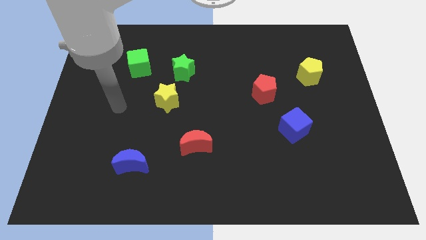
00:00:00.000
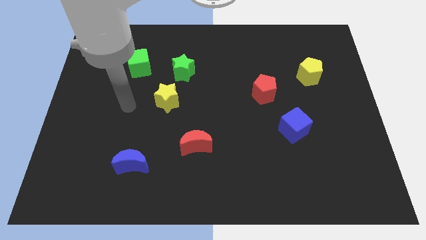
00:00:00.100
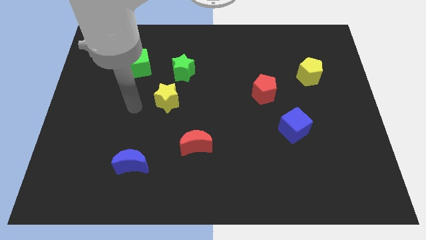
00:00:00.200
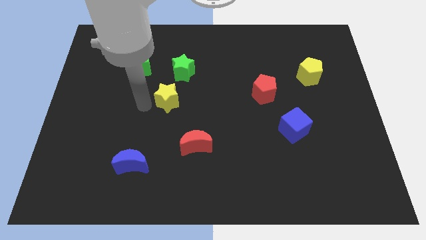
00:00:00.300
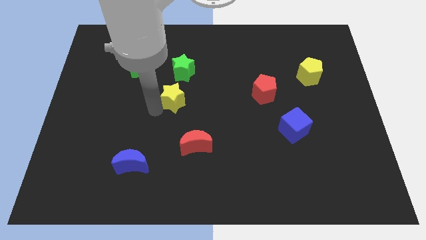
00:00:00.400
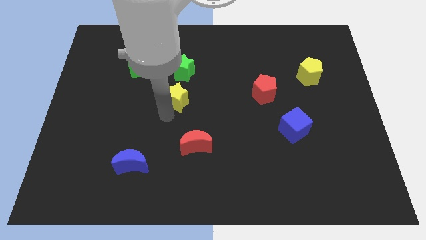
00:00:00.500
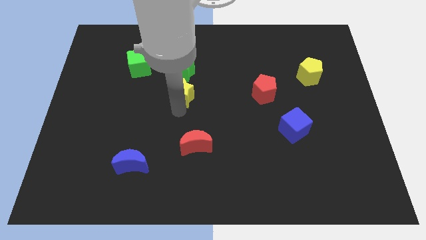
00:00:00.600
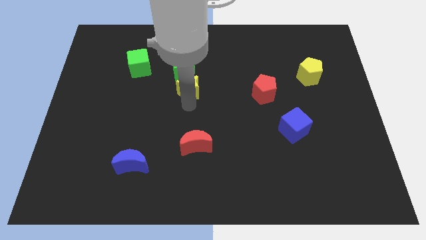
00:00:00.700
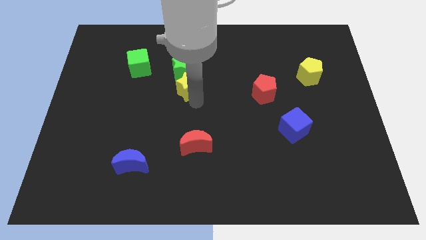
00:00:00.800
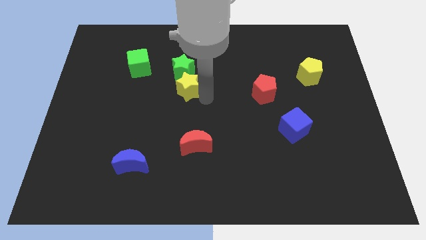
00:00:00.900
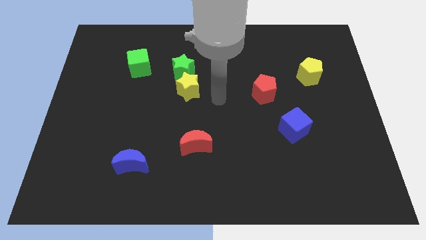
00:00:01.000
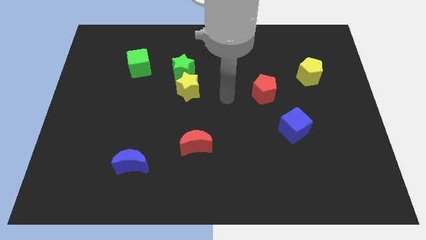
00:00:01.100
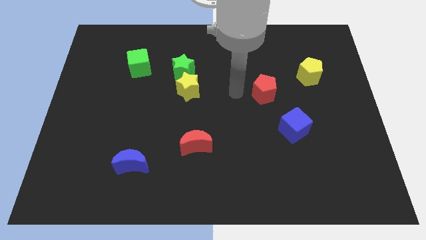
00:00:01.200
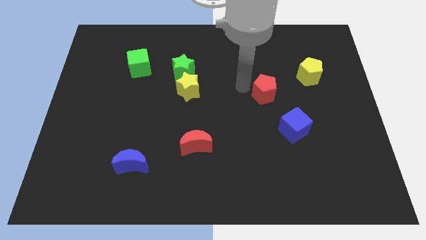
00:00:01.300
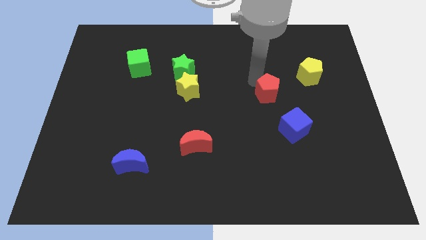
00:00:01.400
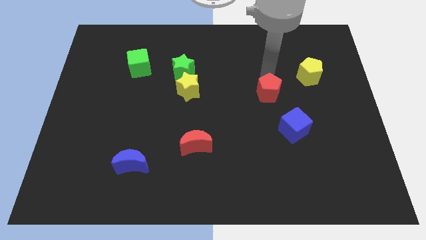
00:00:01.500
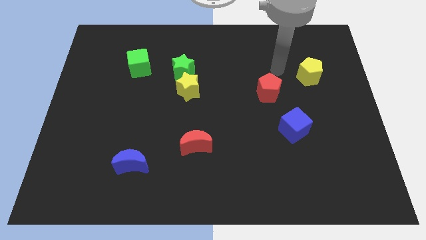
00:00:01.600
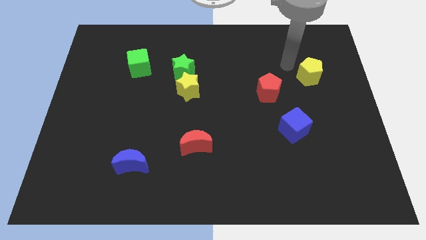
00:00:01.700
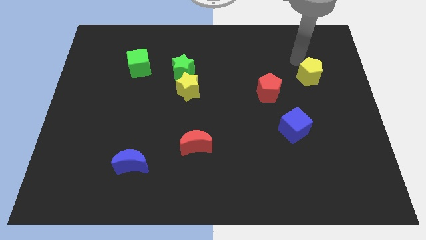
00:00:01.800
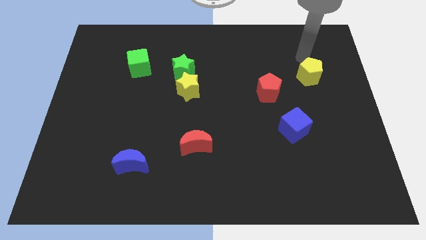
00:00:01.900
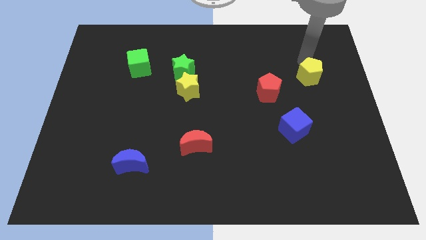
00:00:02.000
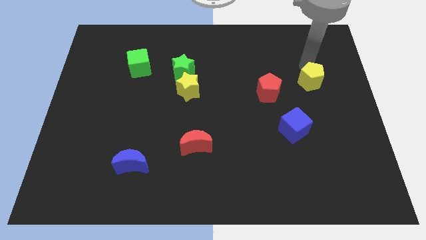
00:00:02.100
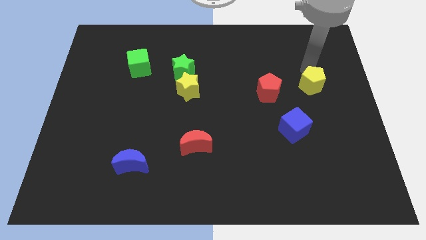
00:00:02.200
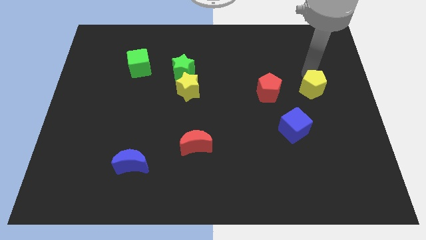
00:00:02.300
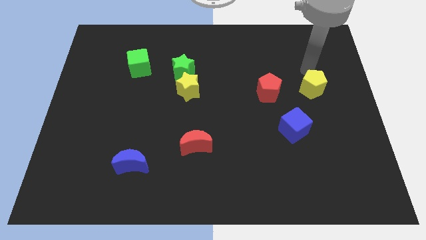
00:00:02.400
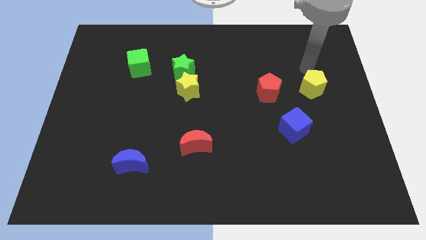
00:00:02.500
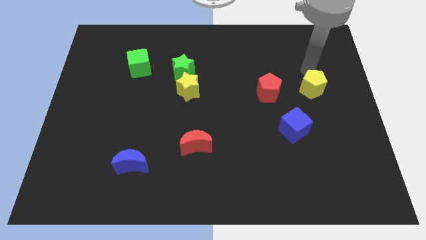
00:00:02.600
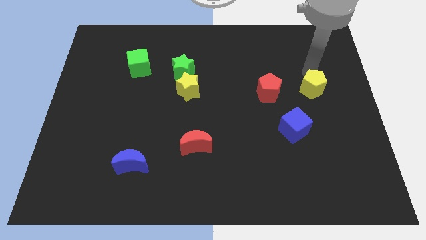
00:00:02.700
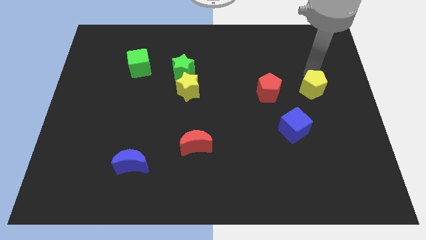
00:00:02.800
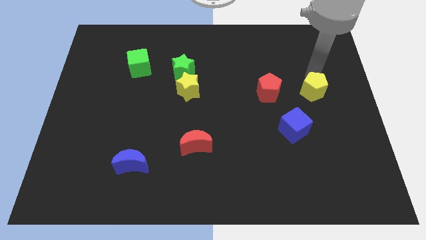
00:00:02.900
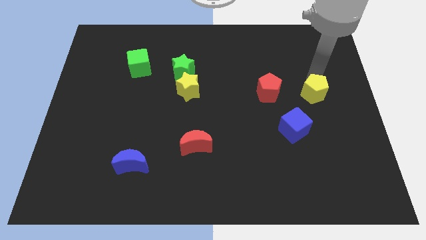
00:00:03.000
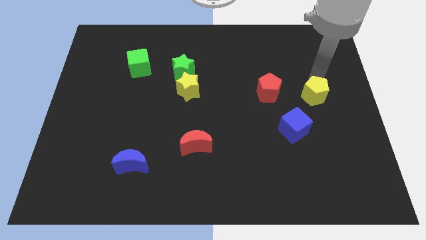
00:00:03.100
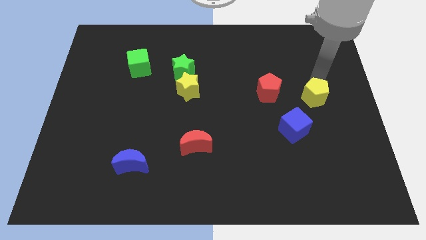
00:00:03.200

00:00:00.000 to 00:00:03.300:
slide the yellow pentagon downwards slightly

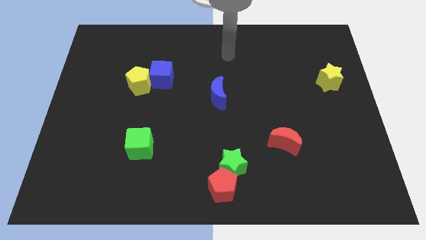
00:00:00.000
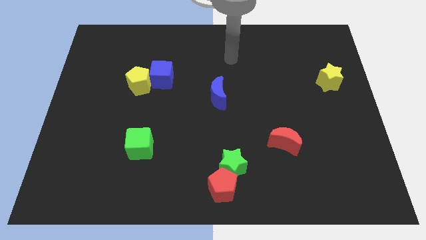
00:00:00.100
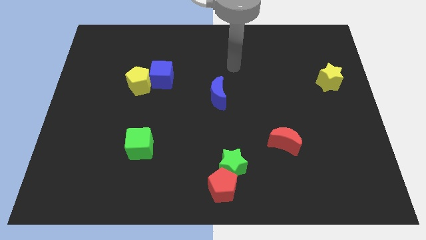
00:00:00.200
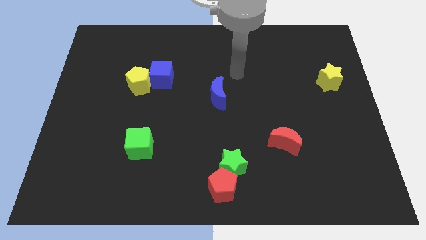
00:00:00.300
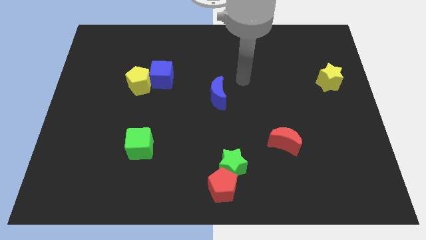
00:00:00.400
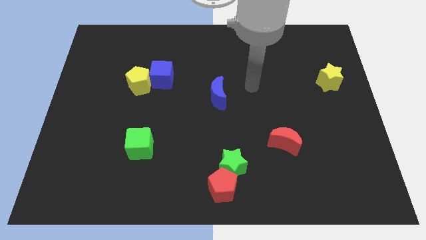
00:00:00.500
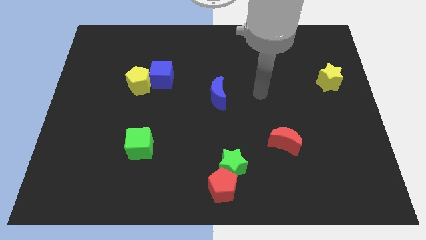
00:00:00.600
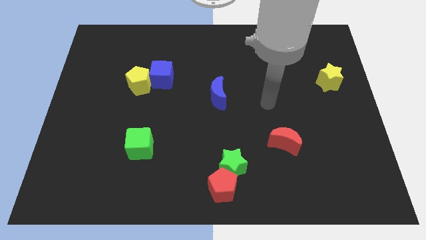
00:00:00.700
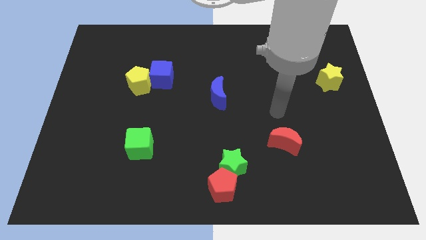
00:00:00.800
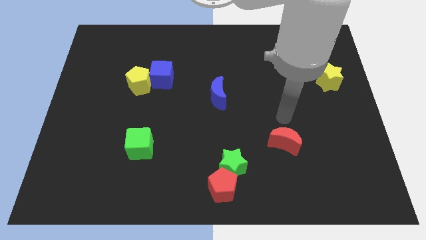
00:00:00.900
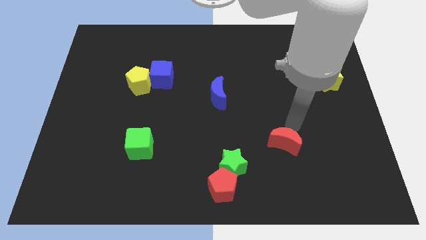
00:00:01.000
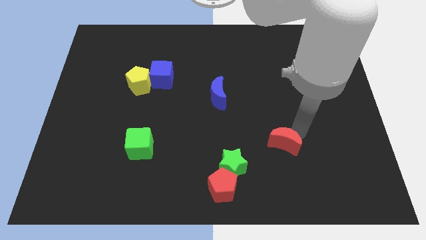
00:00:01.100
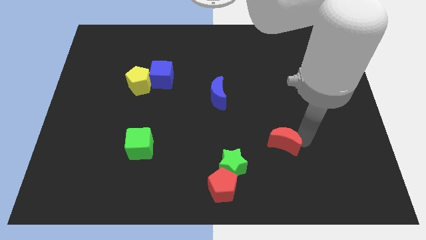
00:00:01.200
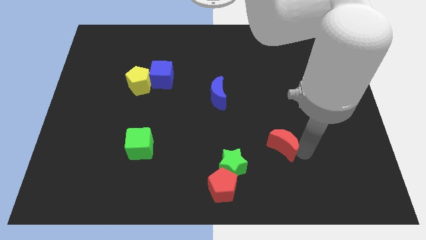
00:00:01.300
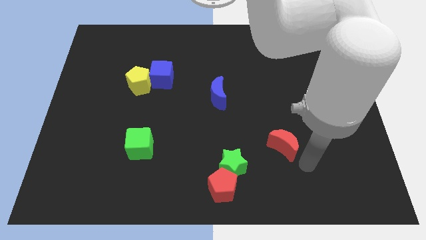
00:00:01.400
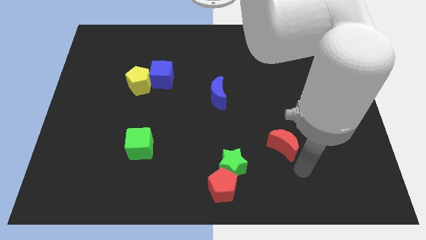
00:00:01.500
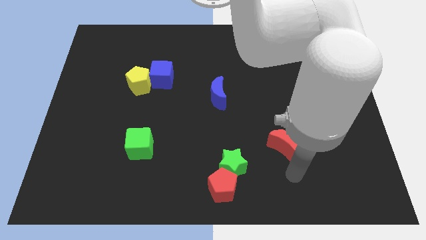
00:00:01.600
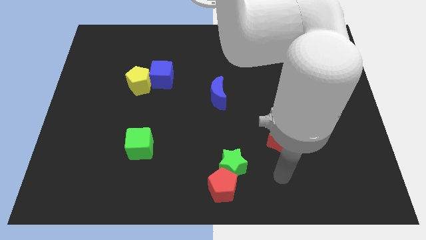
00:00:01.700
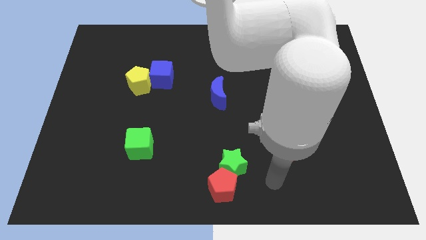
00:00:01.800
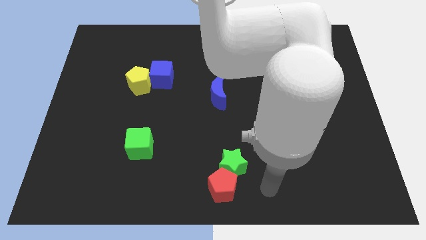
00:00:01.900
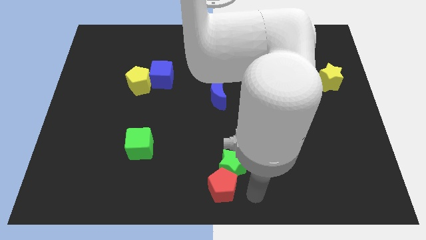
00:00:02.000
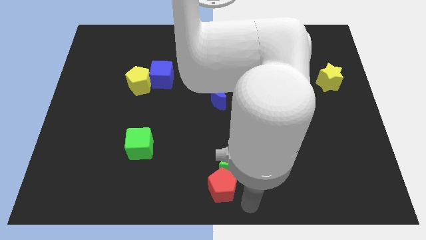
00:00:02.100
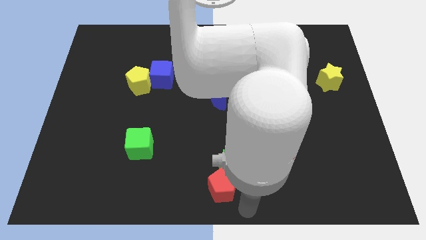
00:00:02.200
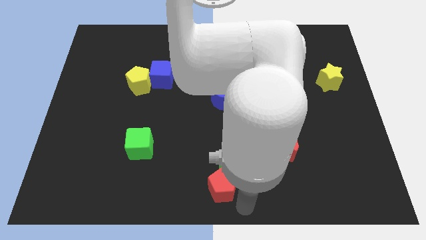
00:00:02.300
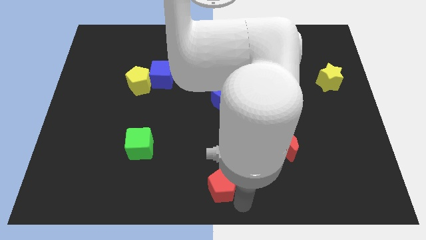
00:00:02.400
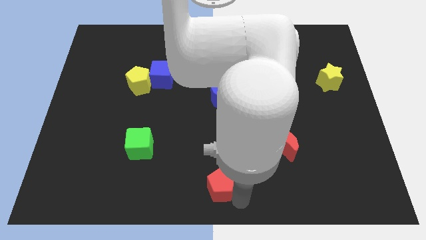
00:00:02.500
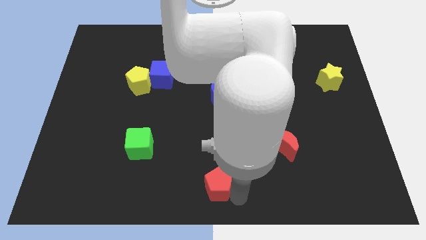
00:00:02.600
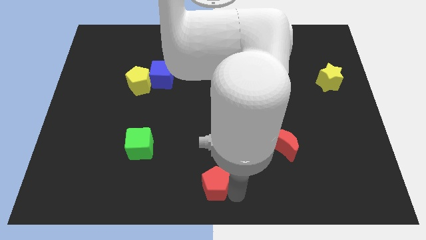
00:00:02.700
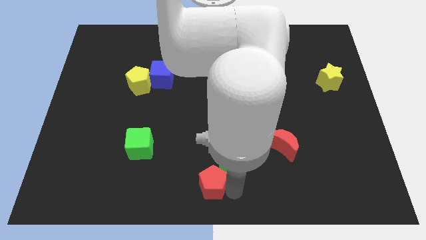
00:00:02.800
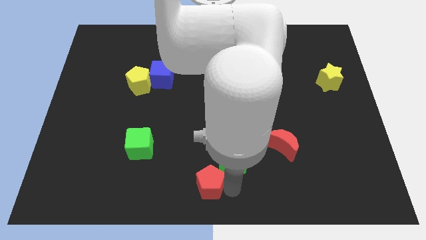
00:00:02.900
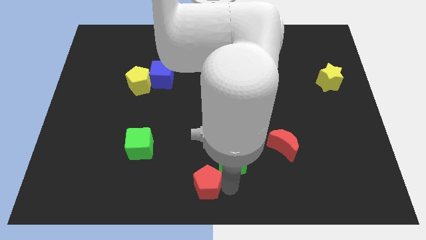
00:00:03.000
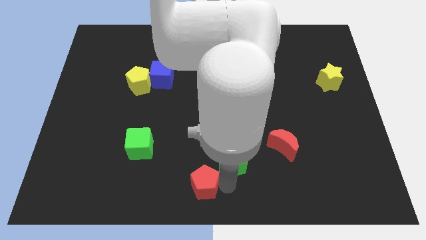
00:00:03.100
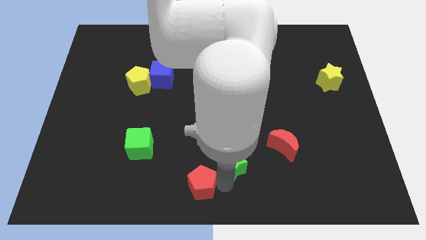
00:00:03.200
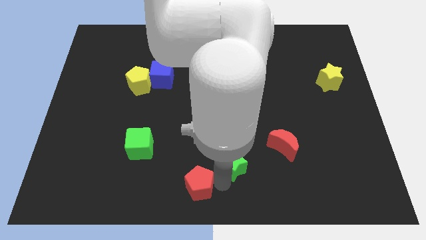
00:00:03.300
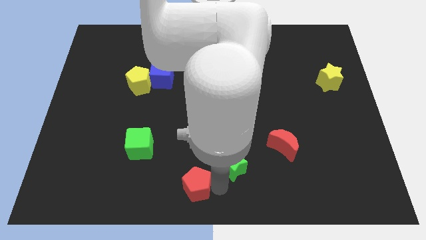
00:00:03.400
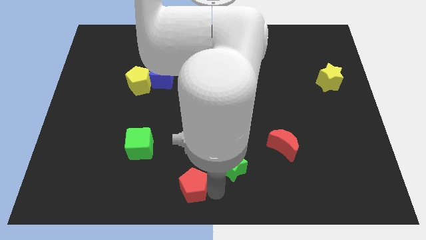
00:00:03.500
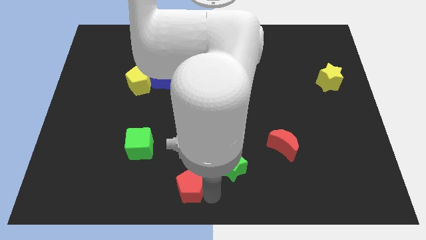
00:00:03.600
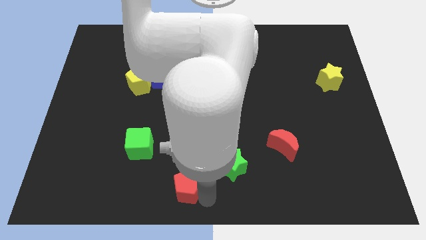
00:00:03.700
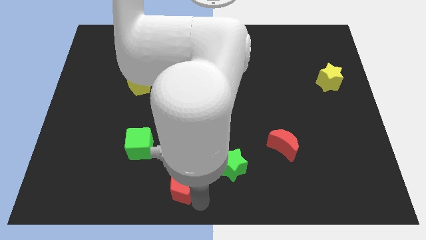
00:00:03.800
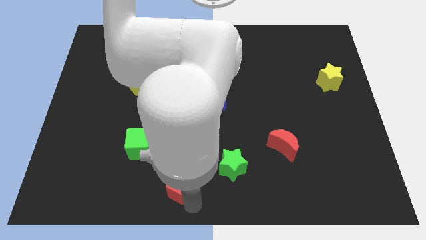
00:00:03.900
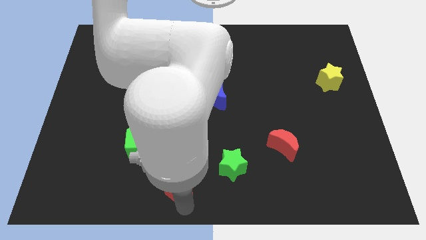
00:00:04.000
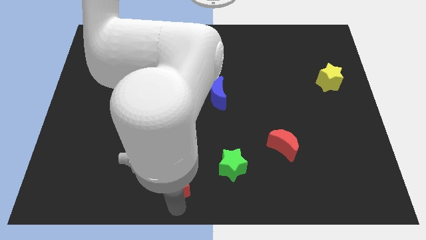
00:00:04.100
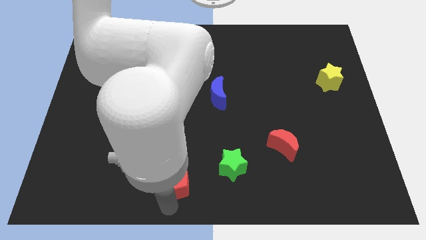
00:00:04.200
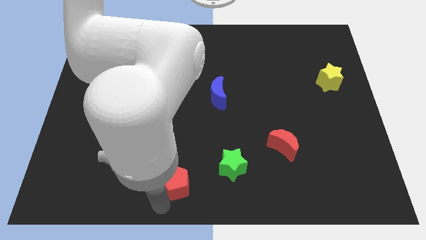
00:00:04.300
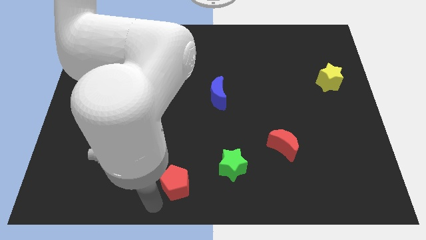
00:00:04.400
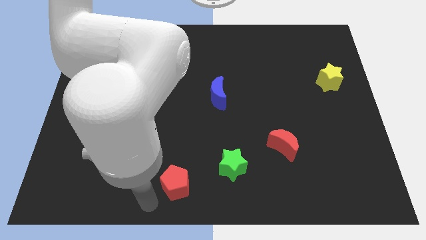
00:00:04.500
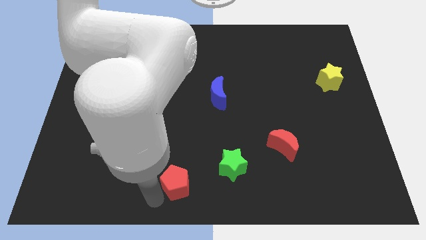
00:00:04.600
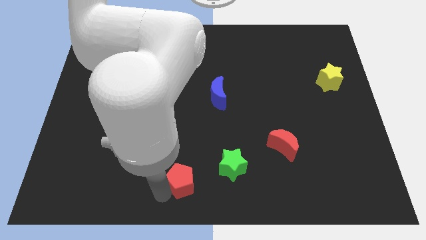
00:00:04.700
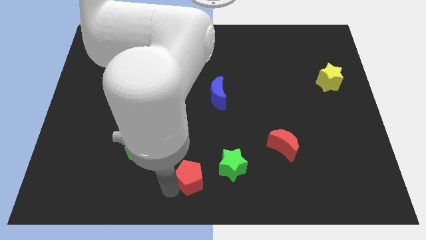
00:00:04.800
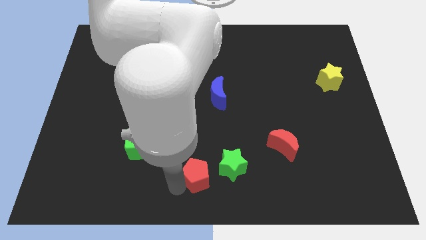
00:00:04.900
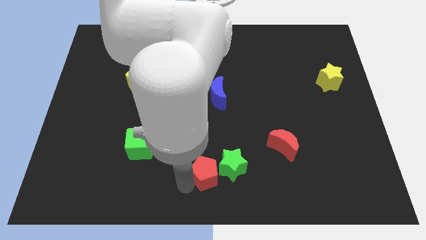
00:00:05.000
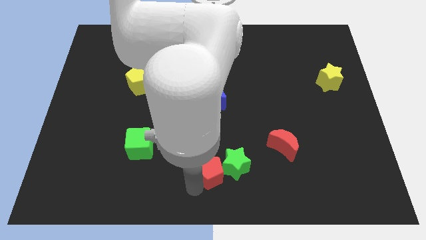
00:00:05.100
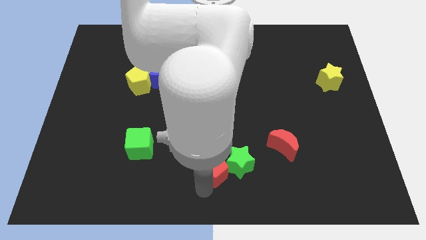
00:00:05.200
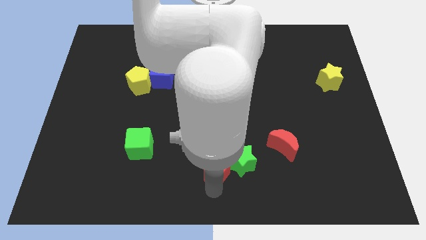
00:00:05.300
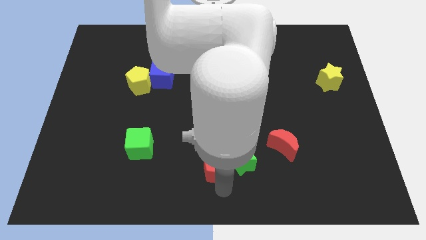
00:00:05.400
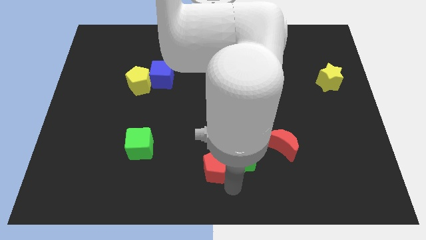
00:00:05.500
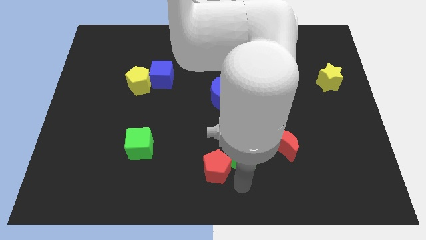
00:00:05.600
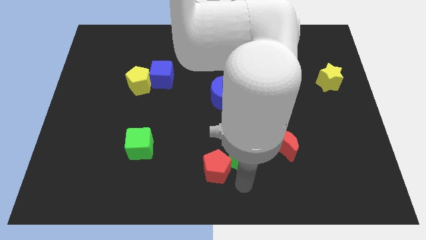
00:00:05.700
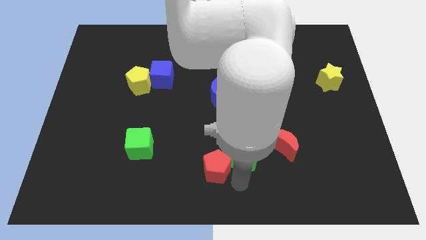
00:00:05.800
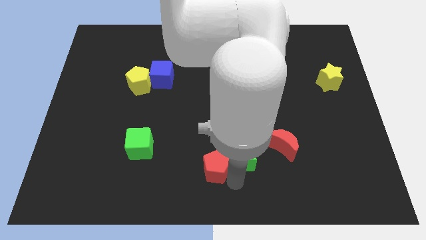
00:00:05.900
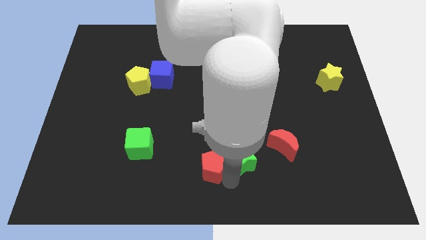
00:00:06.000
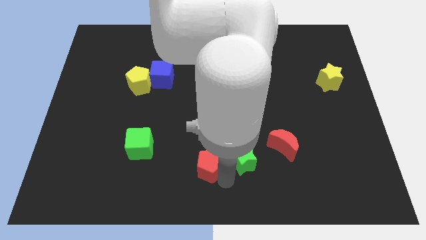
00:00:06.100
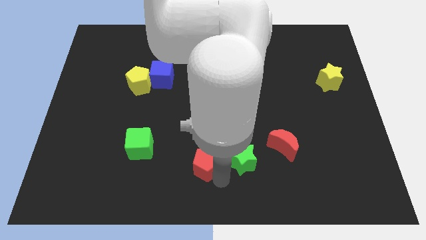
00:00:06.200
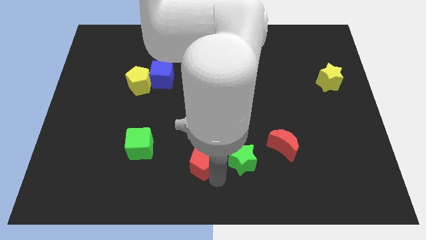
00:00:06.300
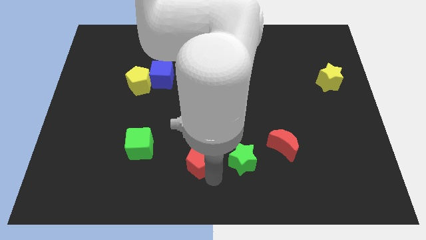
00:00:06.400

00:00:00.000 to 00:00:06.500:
slightly slide the red pentagon diagonally upwards and to the left
